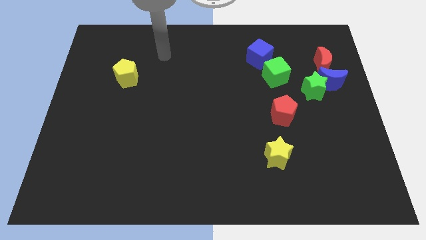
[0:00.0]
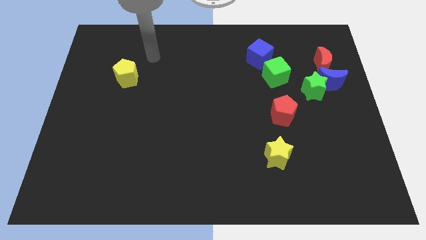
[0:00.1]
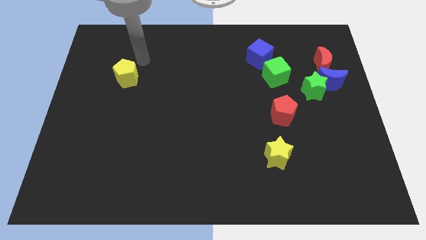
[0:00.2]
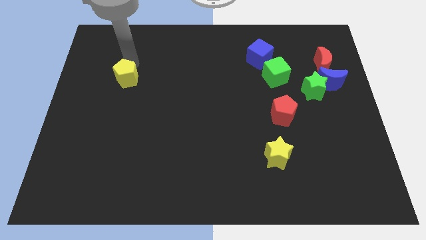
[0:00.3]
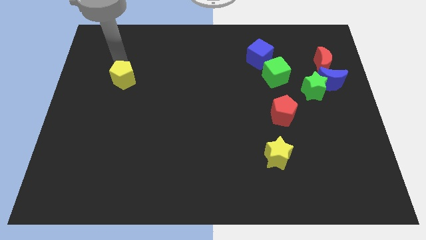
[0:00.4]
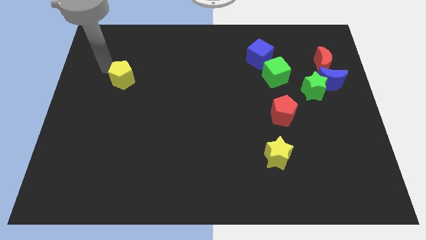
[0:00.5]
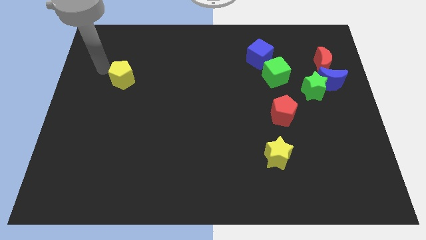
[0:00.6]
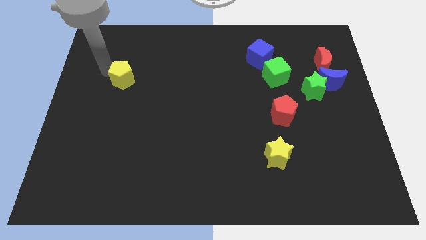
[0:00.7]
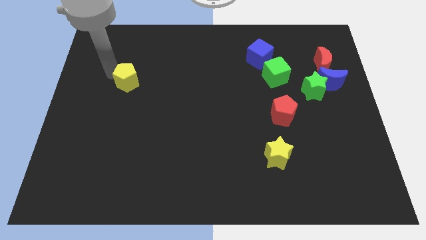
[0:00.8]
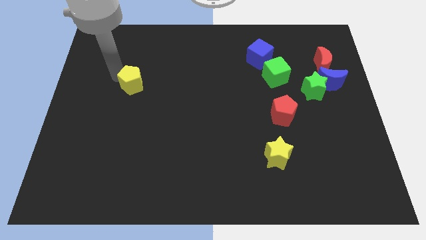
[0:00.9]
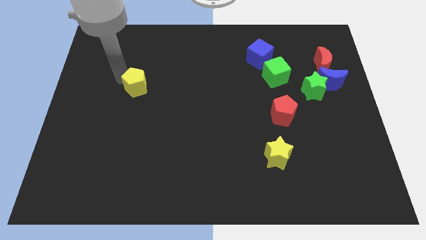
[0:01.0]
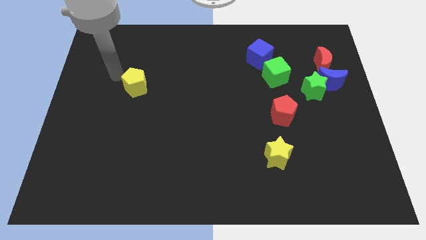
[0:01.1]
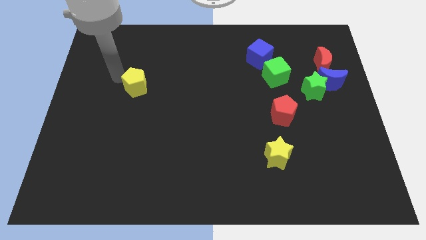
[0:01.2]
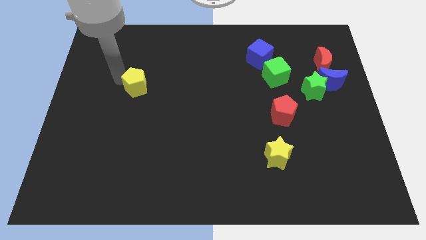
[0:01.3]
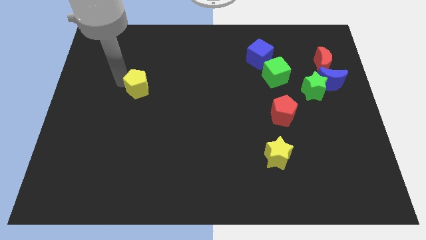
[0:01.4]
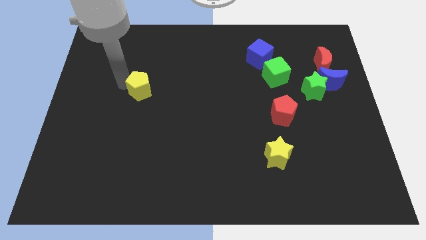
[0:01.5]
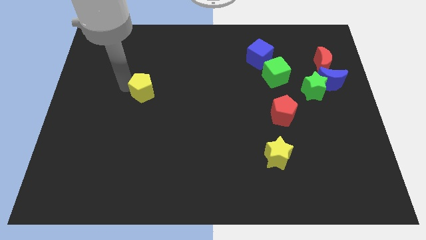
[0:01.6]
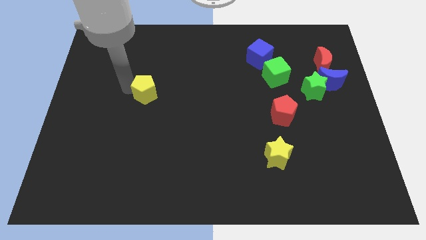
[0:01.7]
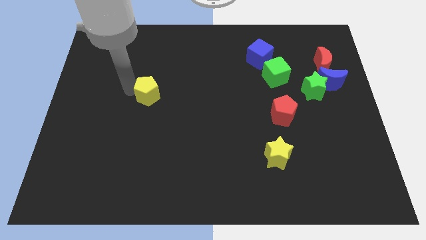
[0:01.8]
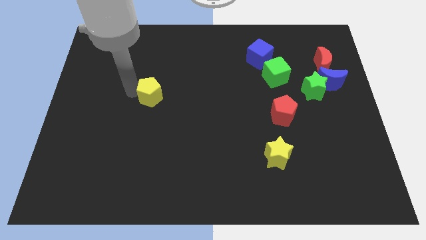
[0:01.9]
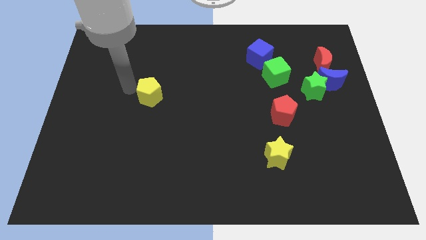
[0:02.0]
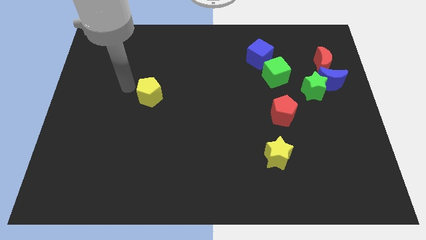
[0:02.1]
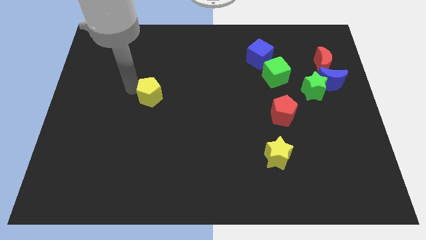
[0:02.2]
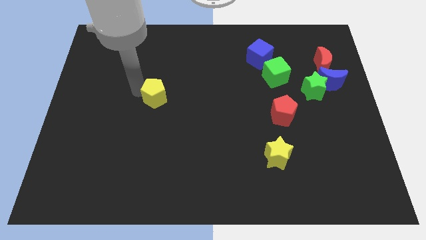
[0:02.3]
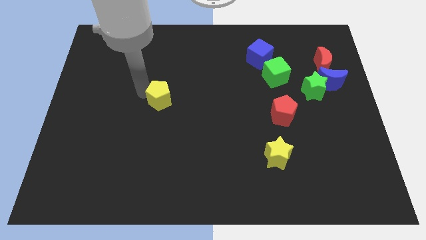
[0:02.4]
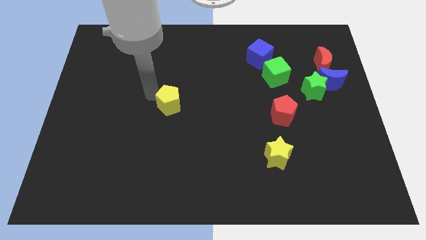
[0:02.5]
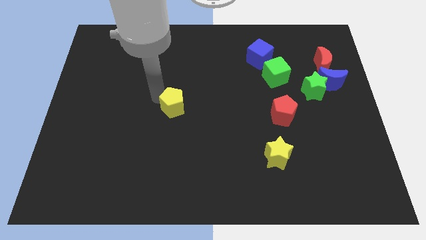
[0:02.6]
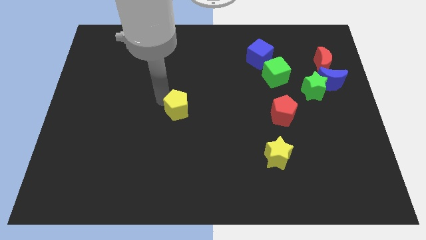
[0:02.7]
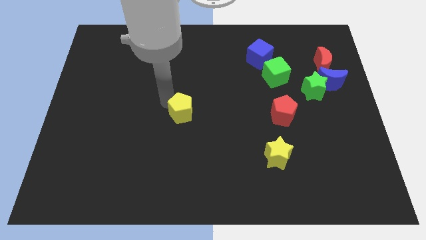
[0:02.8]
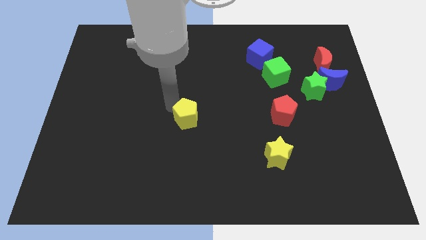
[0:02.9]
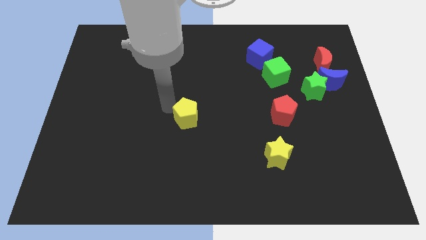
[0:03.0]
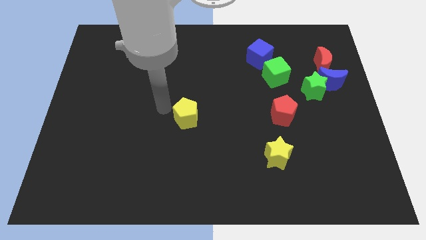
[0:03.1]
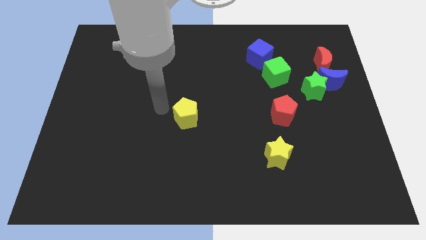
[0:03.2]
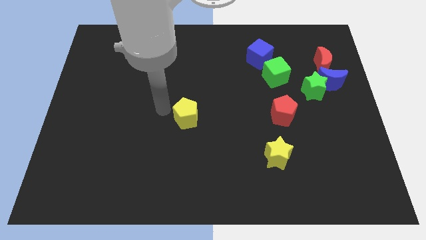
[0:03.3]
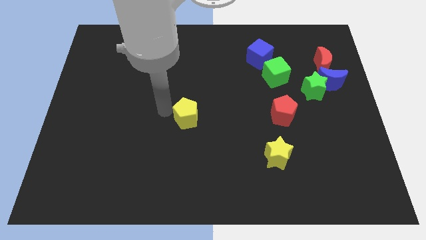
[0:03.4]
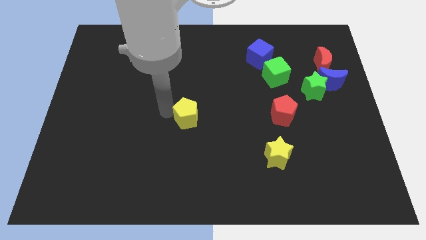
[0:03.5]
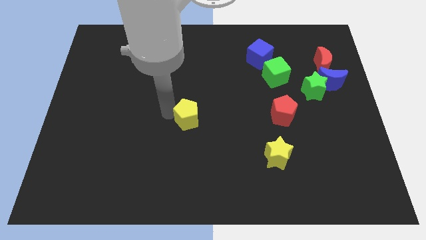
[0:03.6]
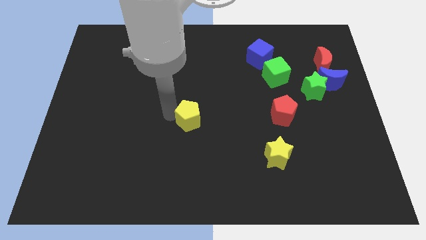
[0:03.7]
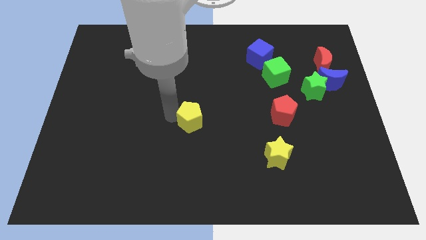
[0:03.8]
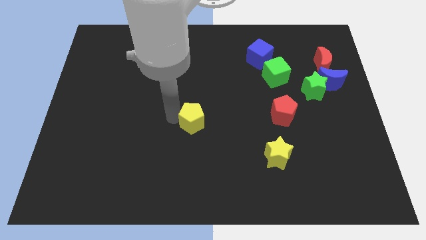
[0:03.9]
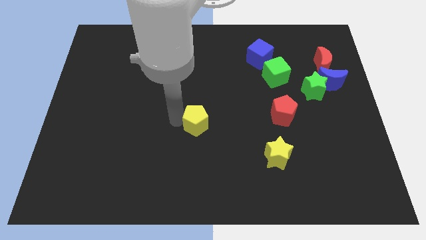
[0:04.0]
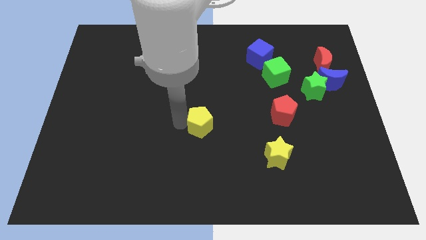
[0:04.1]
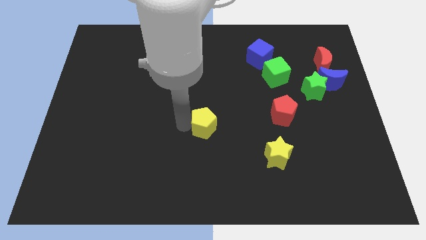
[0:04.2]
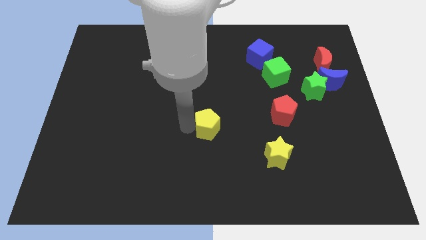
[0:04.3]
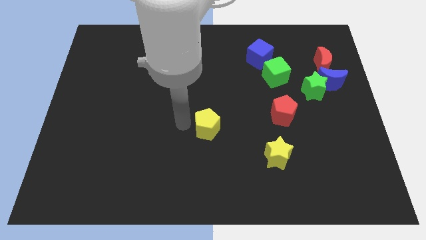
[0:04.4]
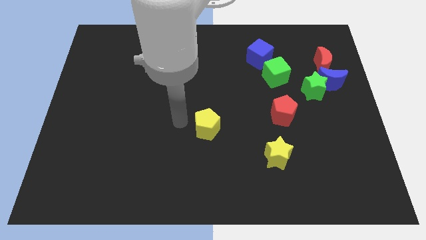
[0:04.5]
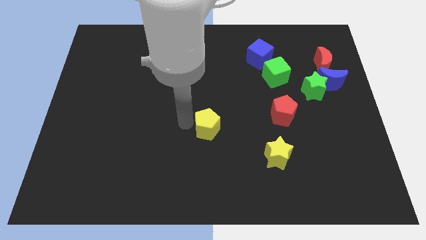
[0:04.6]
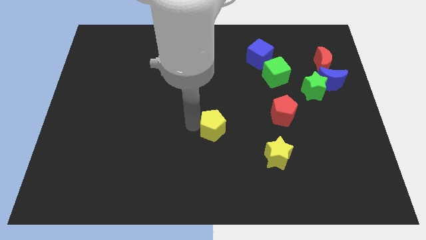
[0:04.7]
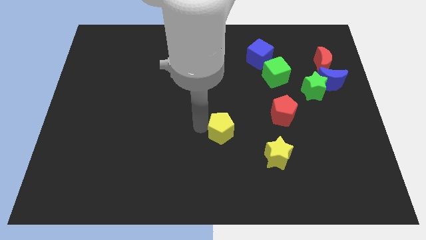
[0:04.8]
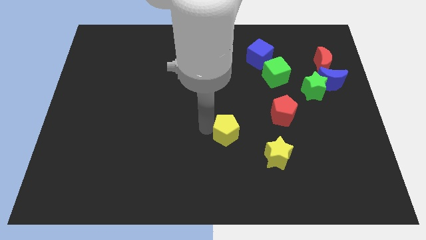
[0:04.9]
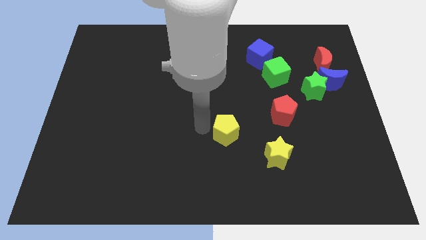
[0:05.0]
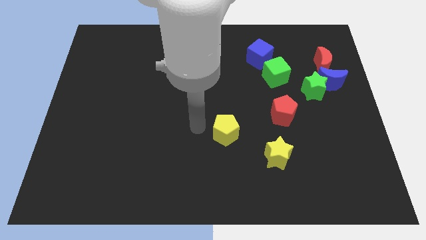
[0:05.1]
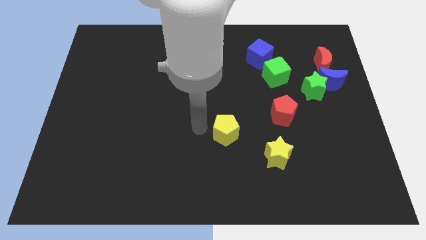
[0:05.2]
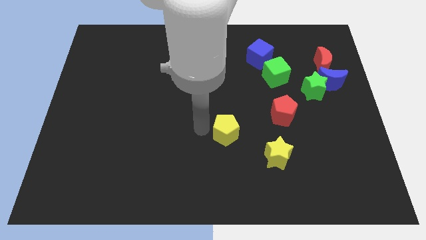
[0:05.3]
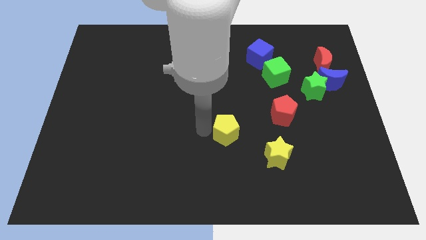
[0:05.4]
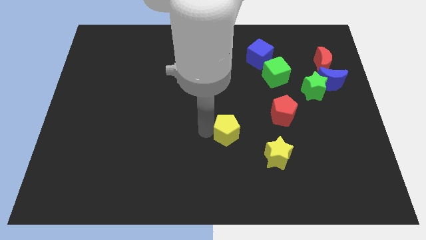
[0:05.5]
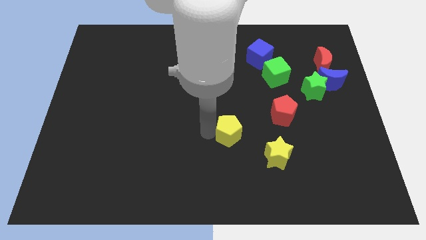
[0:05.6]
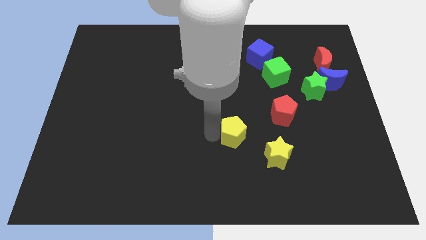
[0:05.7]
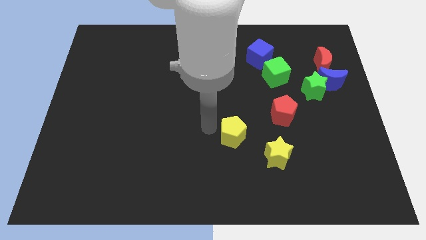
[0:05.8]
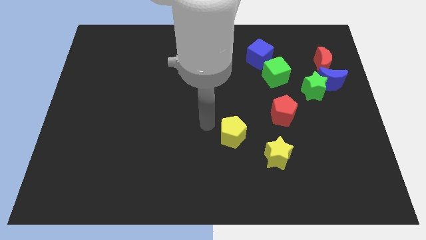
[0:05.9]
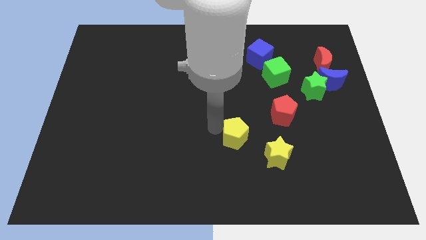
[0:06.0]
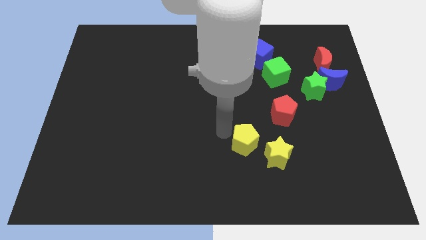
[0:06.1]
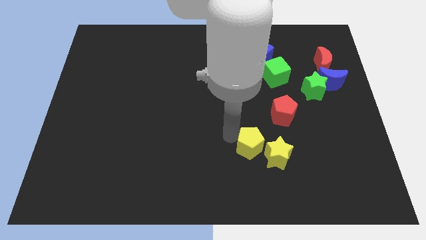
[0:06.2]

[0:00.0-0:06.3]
move the yellow pentagon close to the yellow star

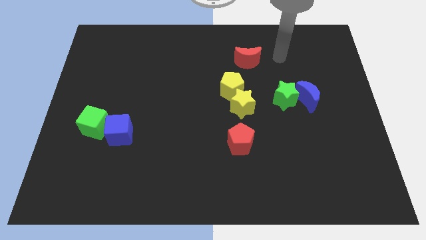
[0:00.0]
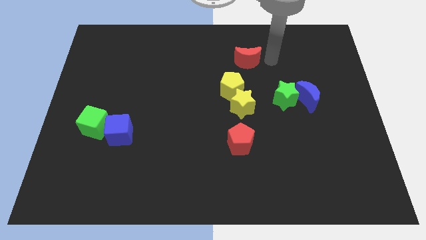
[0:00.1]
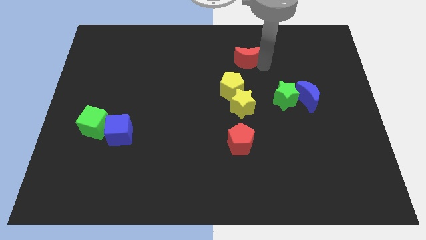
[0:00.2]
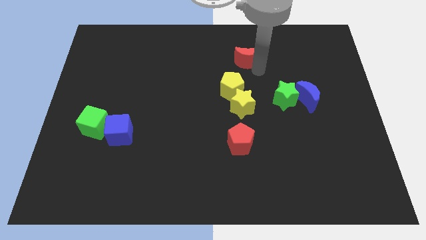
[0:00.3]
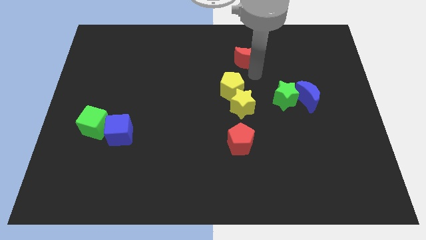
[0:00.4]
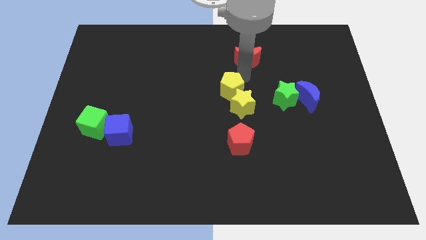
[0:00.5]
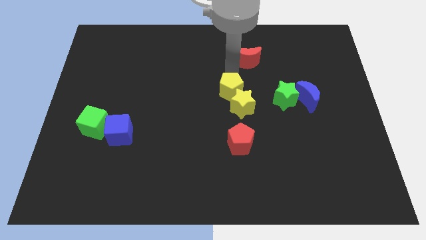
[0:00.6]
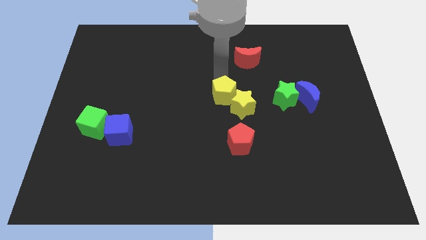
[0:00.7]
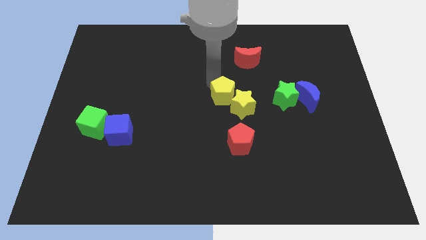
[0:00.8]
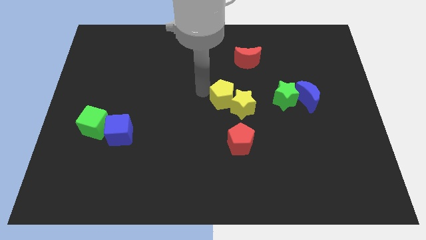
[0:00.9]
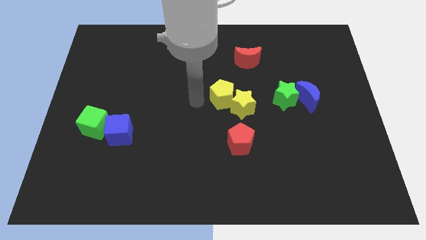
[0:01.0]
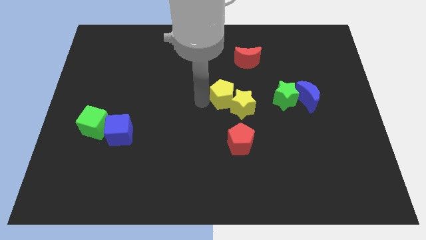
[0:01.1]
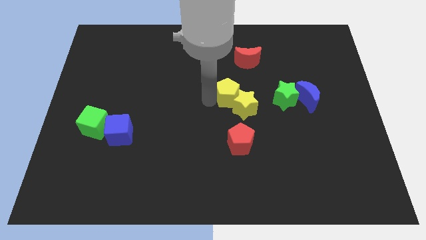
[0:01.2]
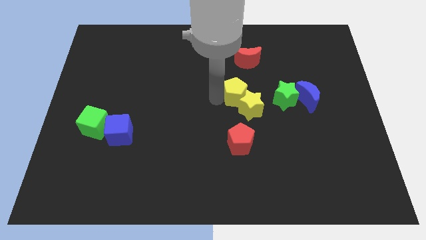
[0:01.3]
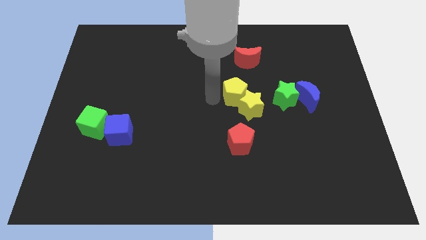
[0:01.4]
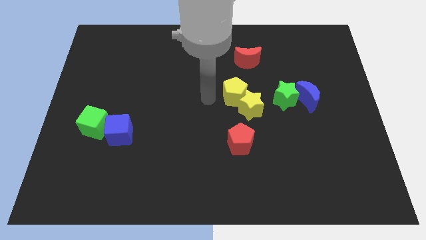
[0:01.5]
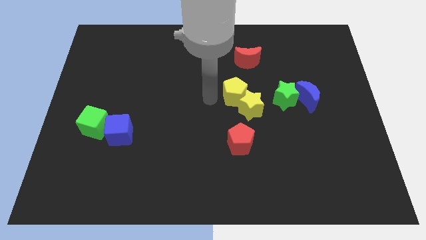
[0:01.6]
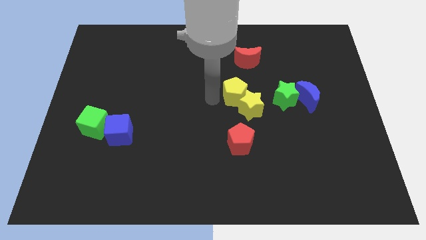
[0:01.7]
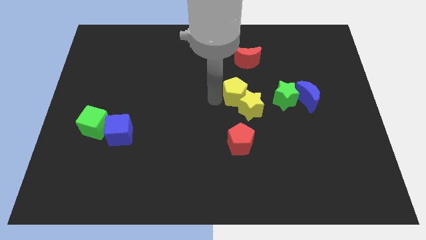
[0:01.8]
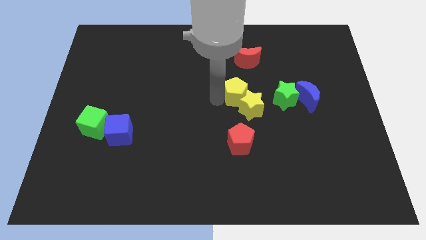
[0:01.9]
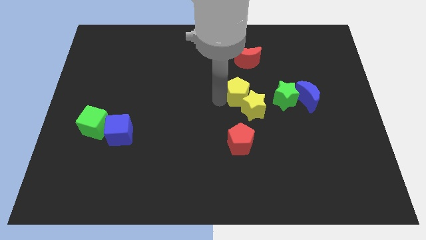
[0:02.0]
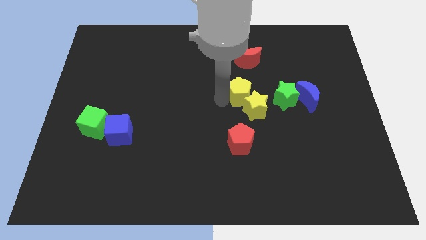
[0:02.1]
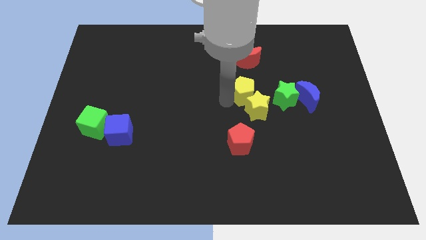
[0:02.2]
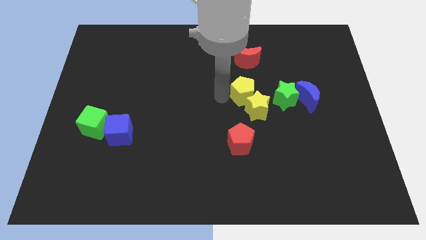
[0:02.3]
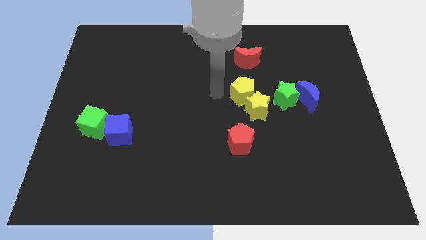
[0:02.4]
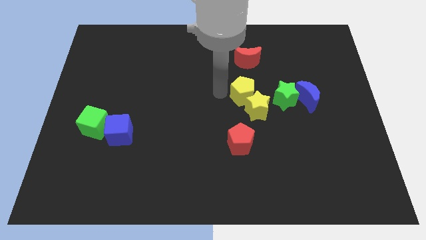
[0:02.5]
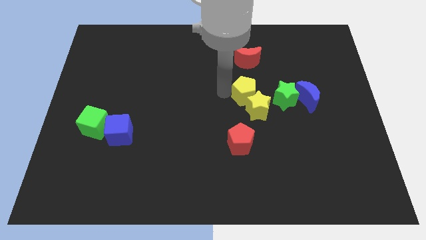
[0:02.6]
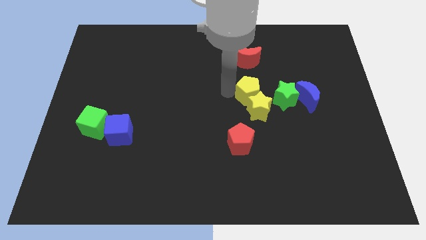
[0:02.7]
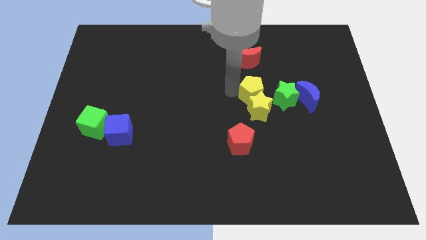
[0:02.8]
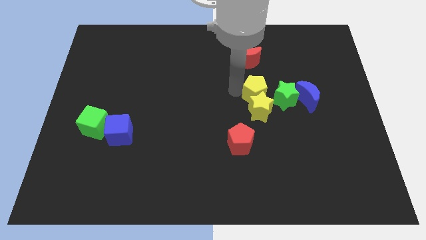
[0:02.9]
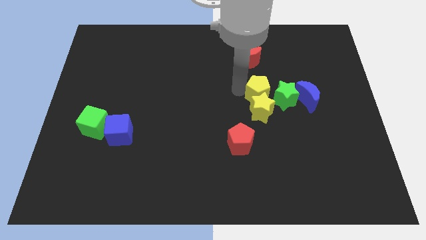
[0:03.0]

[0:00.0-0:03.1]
put the yellow pentagon next to the green star
